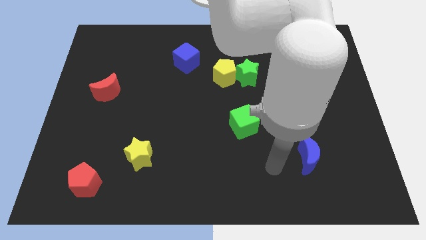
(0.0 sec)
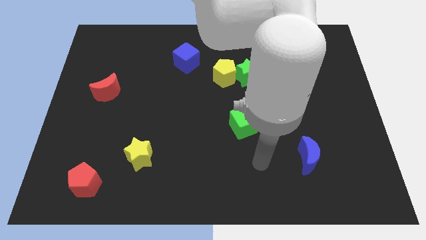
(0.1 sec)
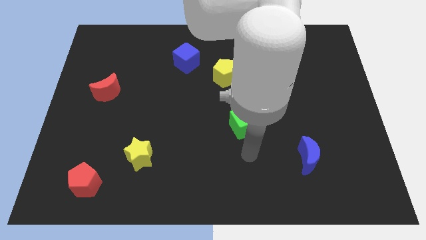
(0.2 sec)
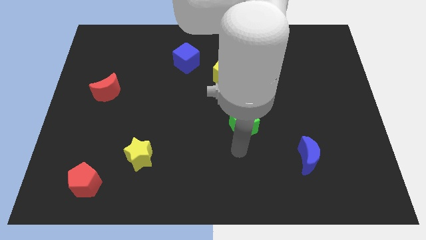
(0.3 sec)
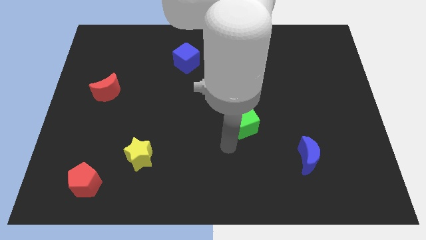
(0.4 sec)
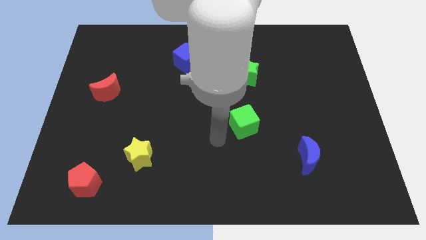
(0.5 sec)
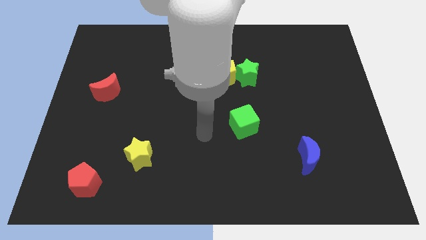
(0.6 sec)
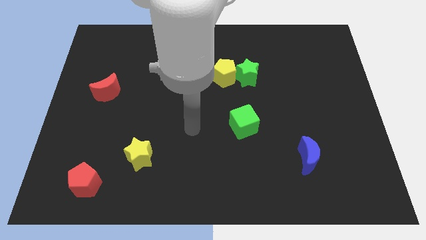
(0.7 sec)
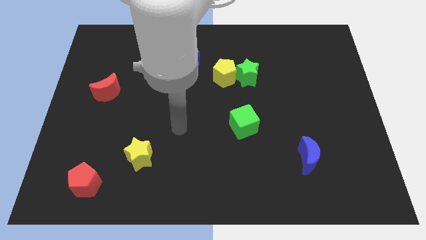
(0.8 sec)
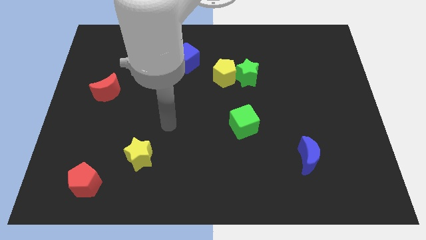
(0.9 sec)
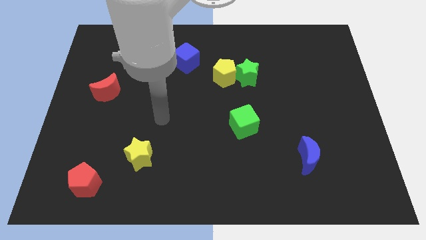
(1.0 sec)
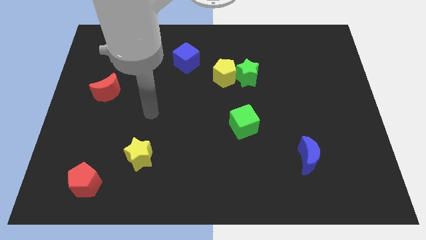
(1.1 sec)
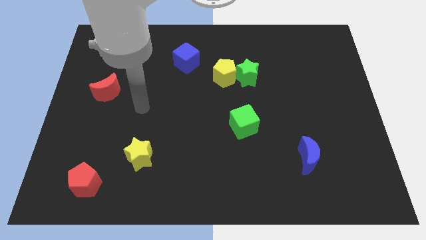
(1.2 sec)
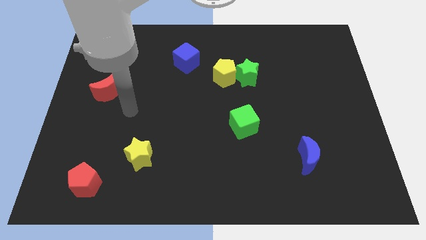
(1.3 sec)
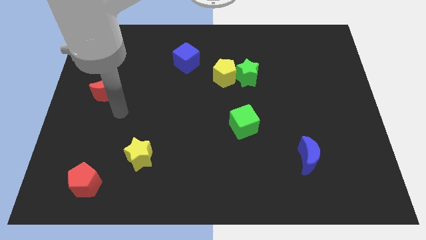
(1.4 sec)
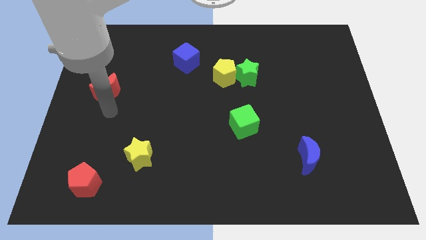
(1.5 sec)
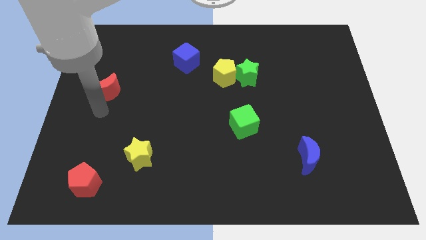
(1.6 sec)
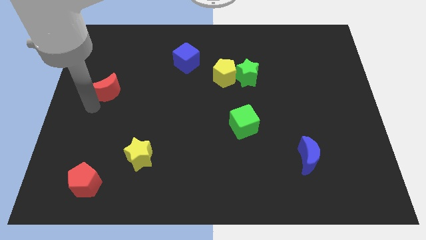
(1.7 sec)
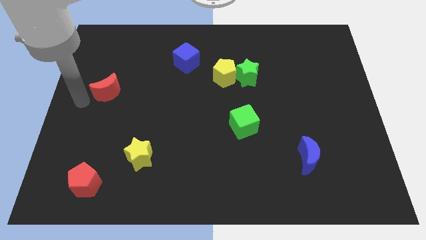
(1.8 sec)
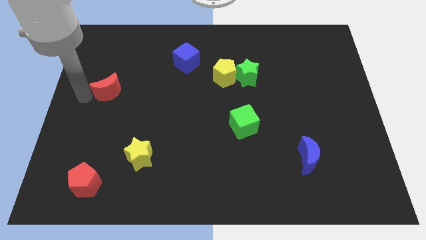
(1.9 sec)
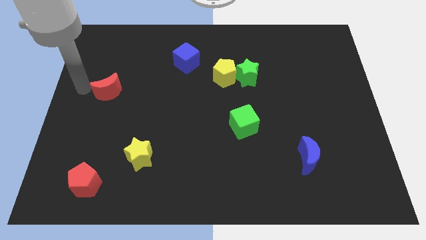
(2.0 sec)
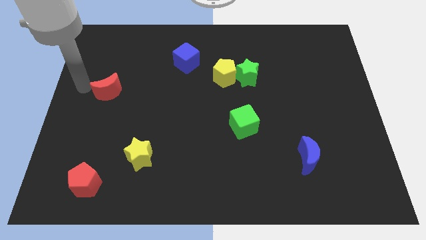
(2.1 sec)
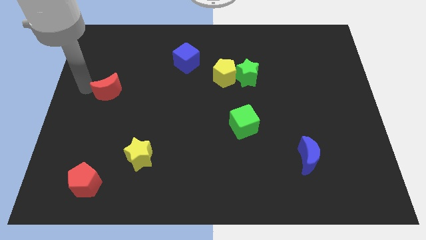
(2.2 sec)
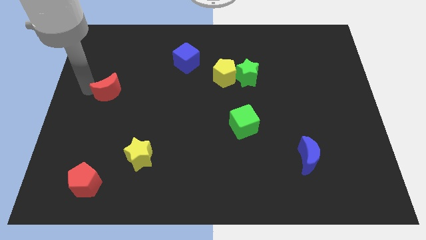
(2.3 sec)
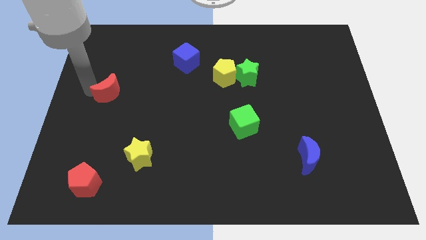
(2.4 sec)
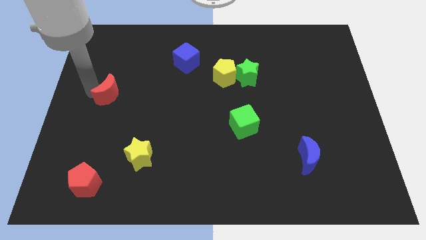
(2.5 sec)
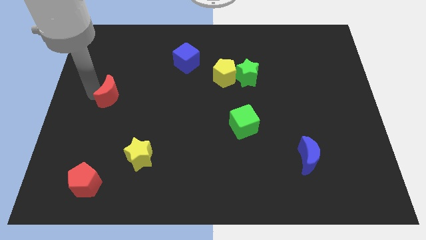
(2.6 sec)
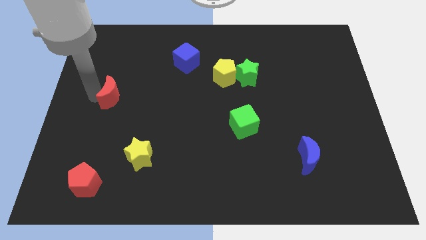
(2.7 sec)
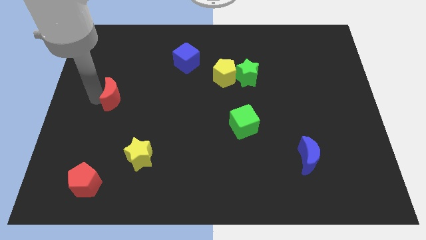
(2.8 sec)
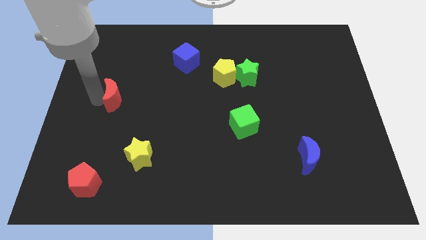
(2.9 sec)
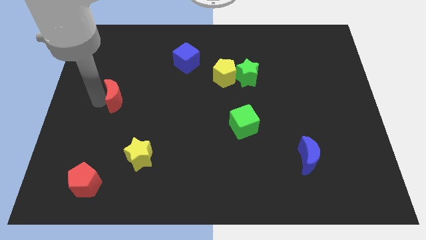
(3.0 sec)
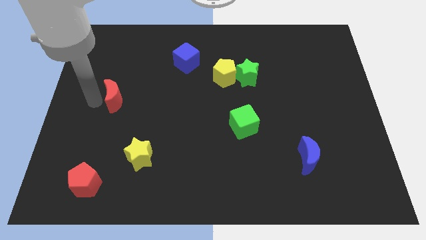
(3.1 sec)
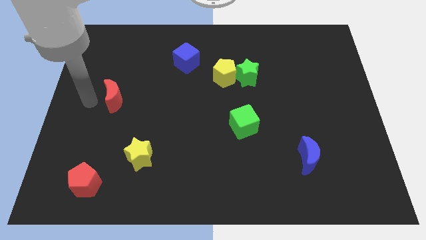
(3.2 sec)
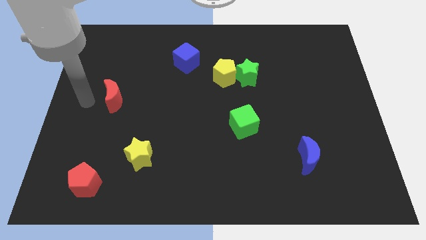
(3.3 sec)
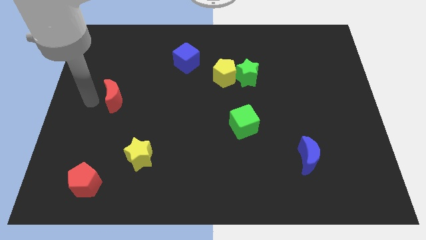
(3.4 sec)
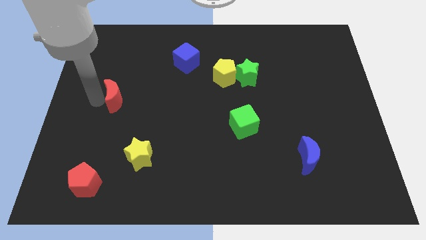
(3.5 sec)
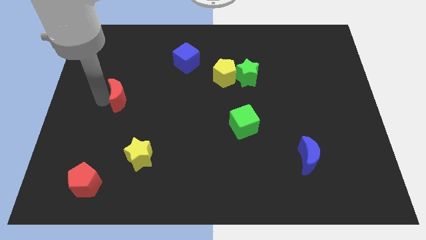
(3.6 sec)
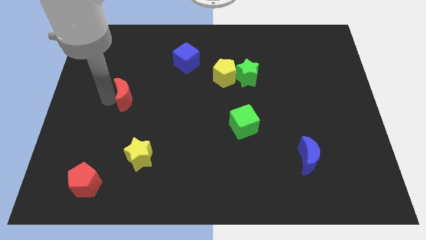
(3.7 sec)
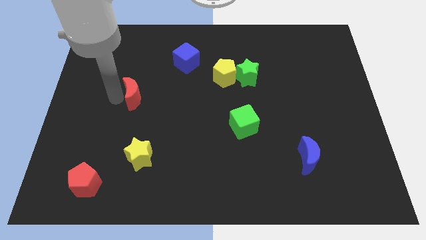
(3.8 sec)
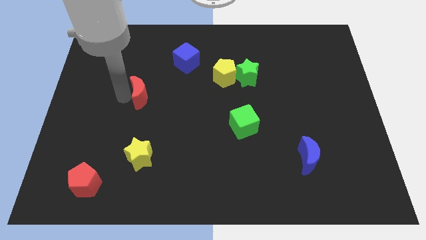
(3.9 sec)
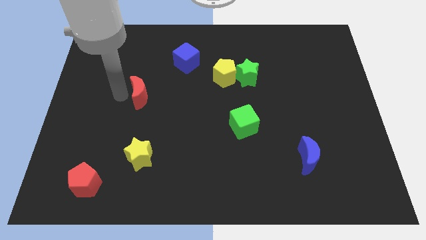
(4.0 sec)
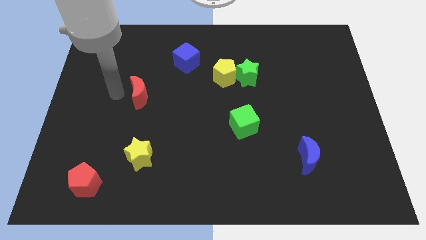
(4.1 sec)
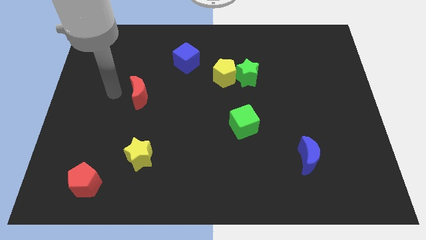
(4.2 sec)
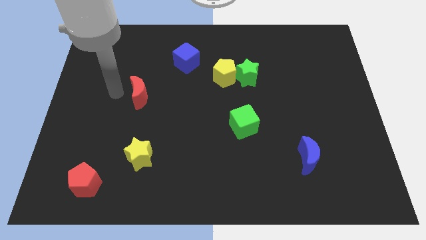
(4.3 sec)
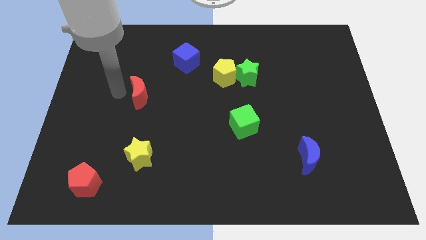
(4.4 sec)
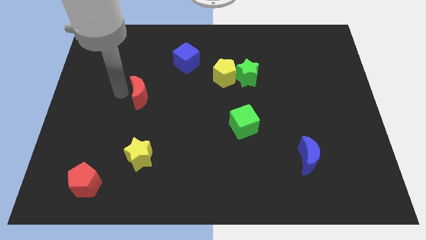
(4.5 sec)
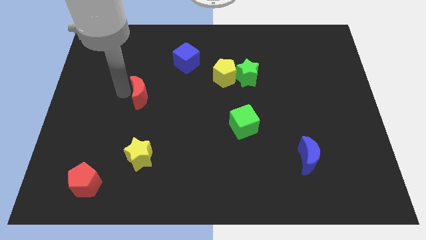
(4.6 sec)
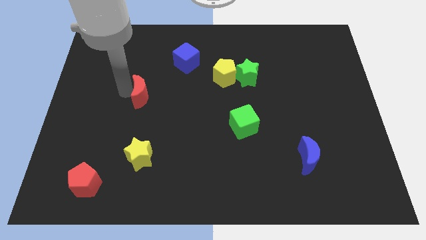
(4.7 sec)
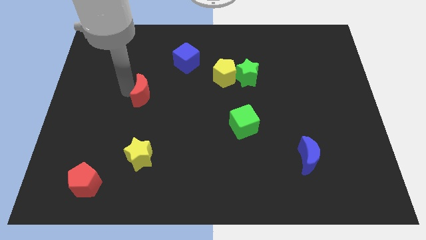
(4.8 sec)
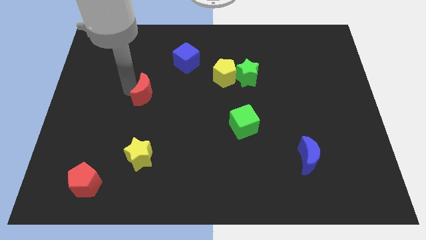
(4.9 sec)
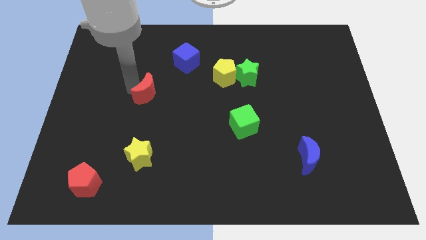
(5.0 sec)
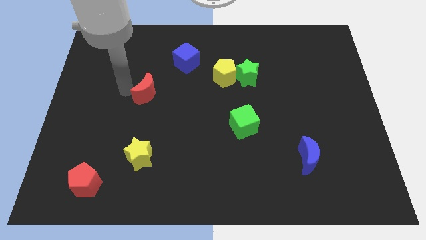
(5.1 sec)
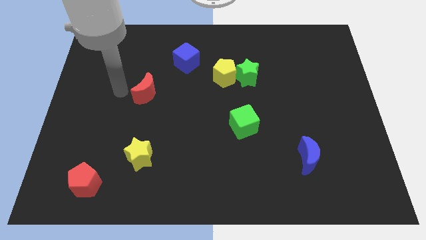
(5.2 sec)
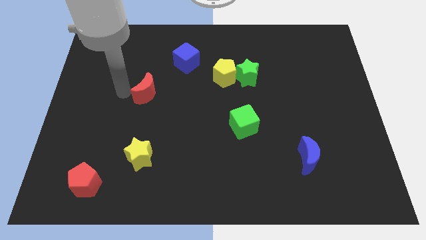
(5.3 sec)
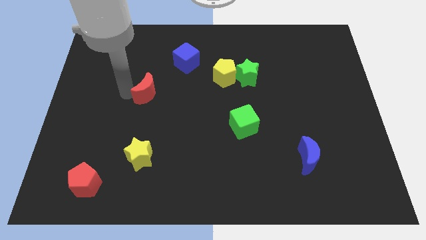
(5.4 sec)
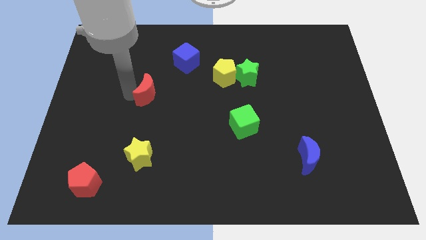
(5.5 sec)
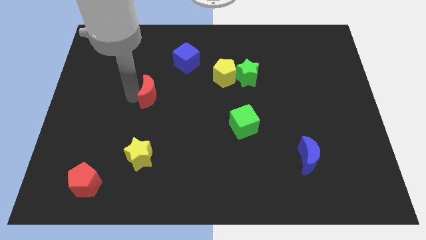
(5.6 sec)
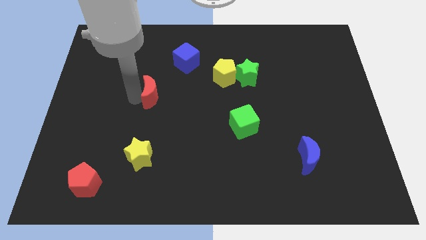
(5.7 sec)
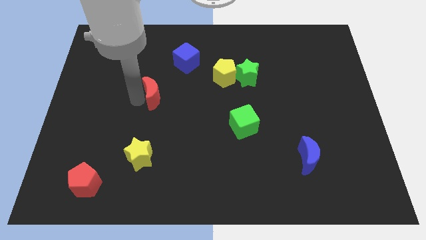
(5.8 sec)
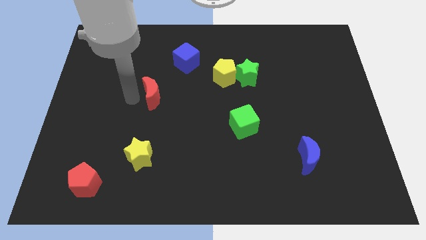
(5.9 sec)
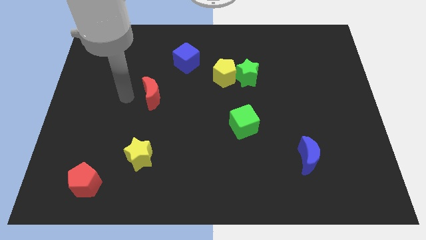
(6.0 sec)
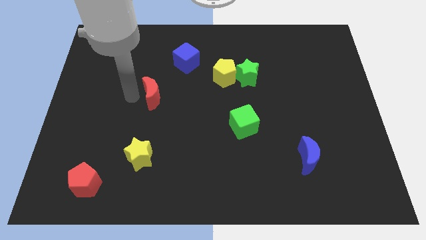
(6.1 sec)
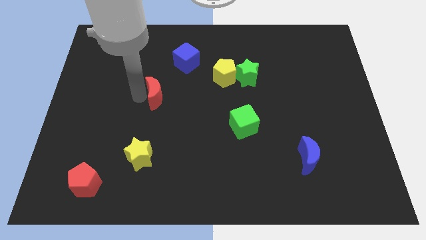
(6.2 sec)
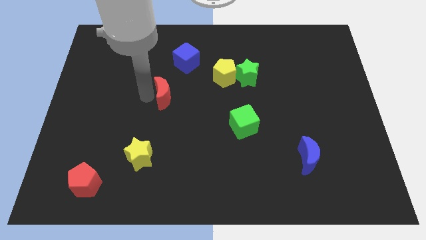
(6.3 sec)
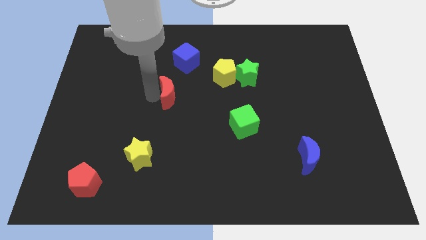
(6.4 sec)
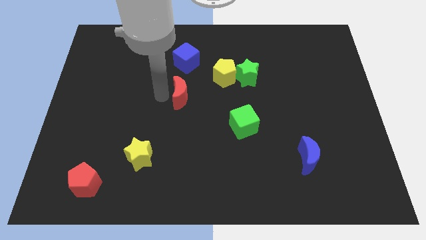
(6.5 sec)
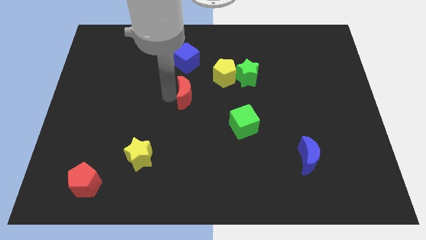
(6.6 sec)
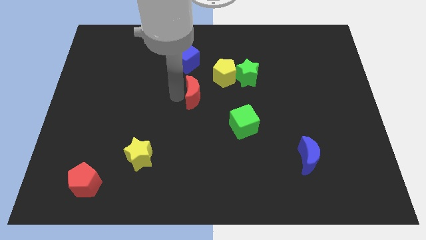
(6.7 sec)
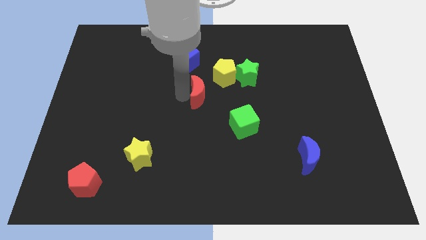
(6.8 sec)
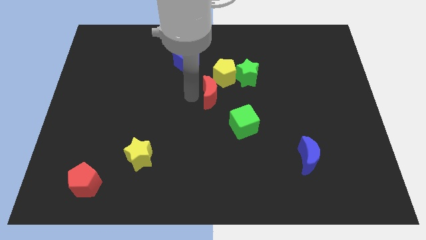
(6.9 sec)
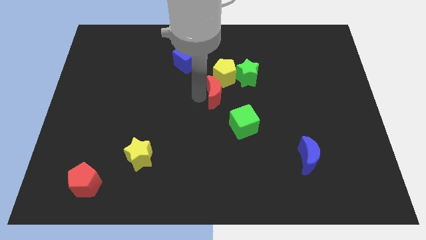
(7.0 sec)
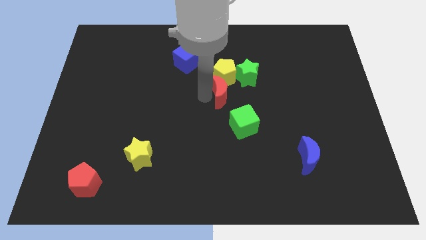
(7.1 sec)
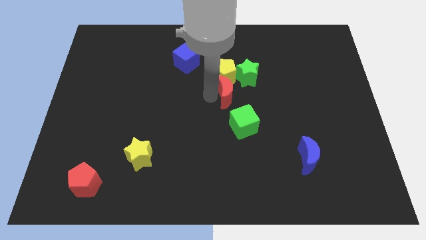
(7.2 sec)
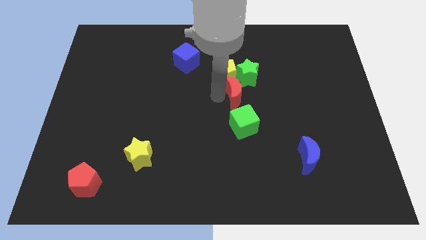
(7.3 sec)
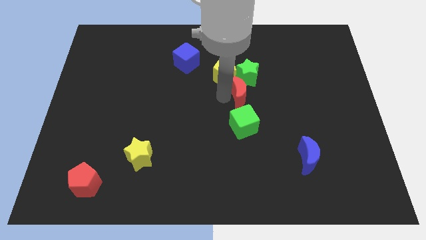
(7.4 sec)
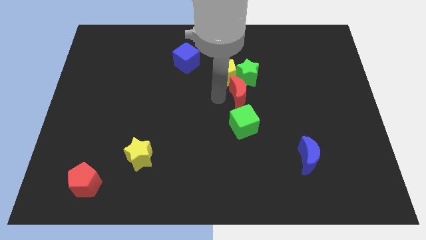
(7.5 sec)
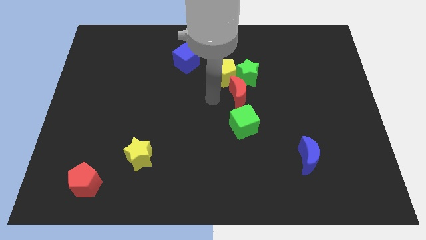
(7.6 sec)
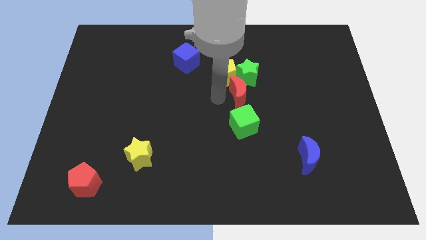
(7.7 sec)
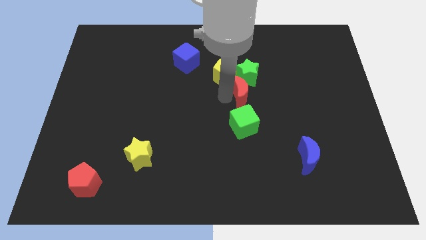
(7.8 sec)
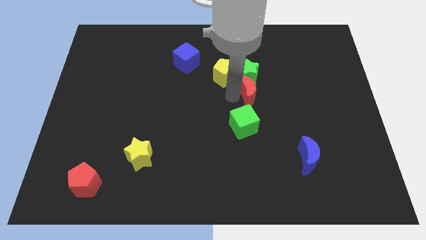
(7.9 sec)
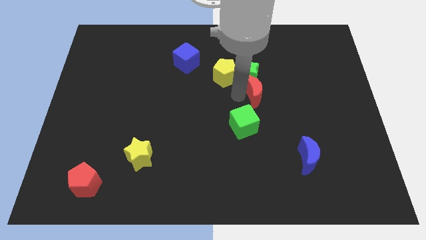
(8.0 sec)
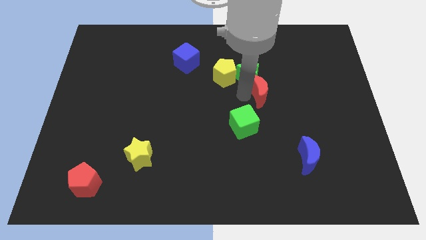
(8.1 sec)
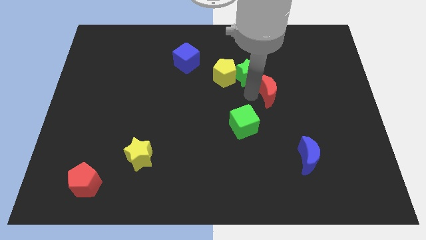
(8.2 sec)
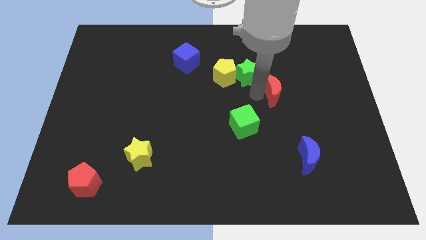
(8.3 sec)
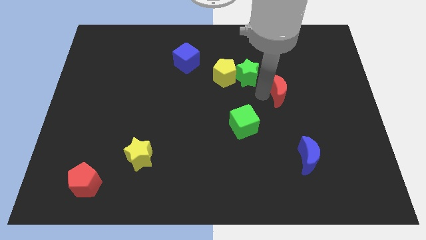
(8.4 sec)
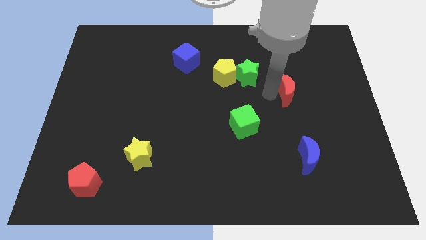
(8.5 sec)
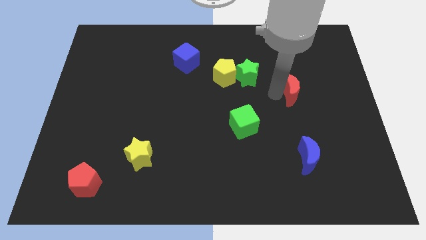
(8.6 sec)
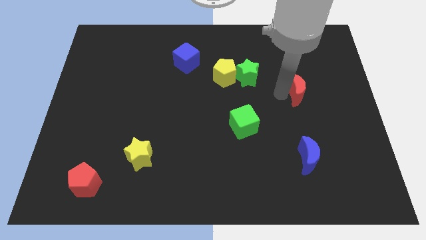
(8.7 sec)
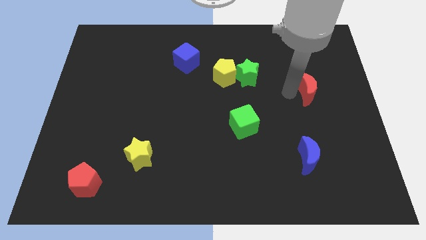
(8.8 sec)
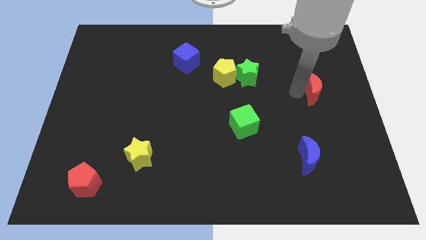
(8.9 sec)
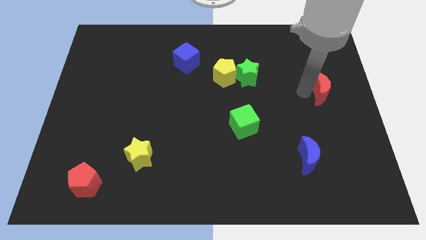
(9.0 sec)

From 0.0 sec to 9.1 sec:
put the red moon to the right side
